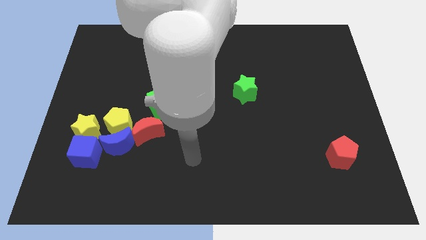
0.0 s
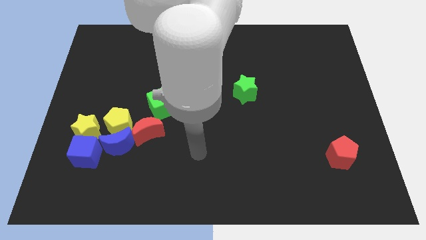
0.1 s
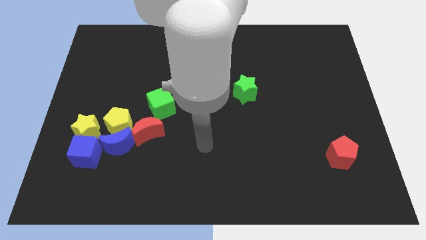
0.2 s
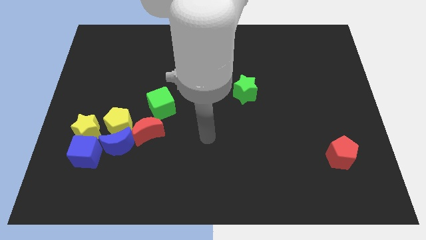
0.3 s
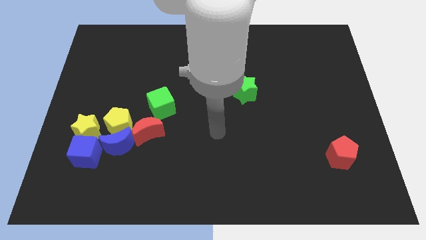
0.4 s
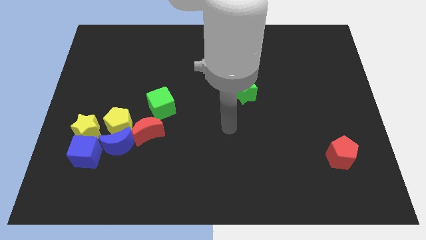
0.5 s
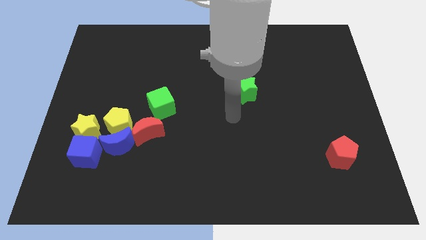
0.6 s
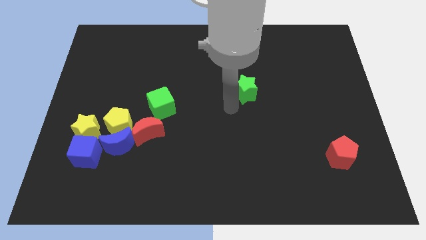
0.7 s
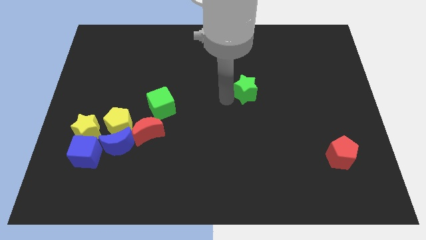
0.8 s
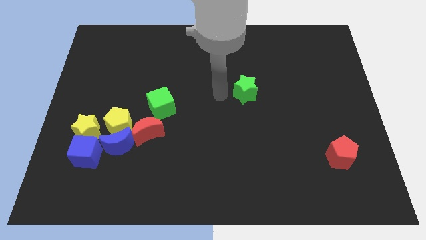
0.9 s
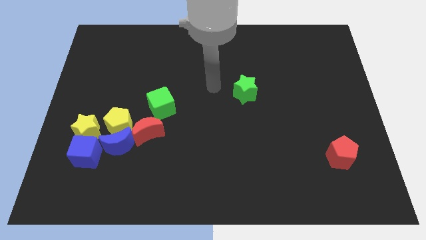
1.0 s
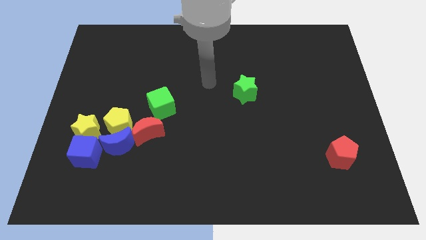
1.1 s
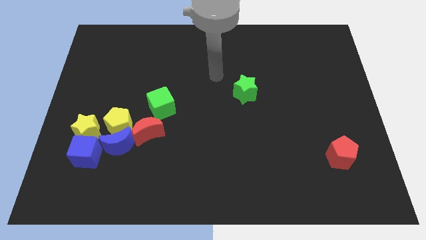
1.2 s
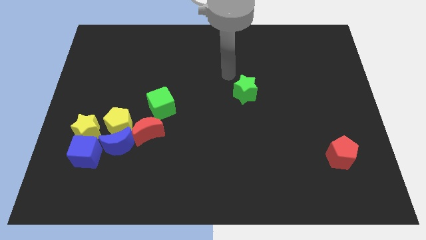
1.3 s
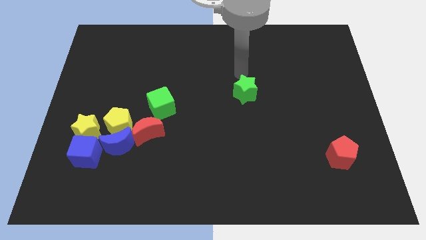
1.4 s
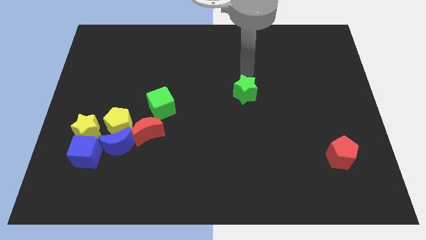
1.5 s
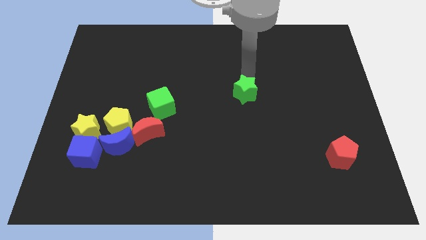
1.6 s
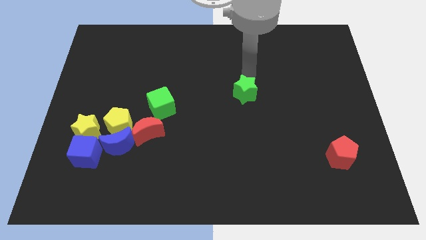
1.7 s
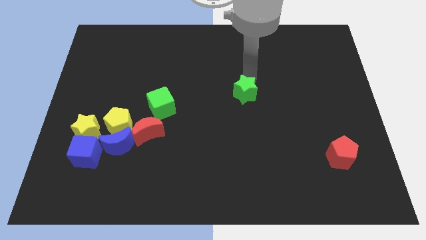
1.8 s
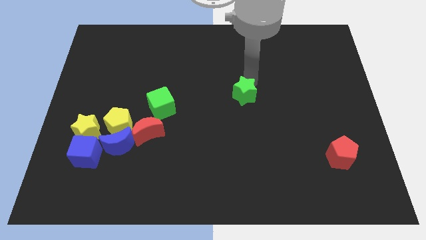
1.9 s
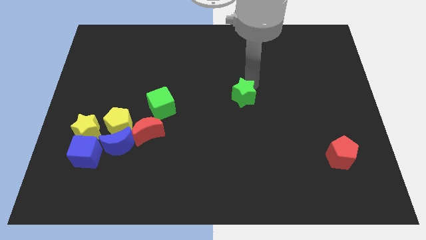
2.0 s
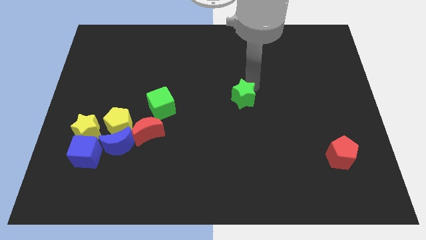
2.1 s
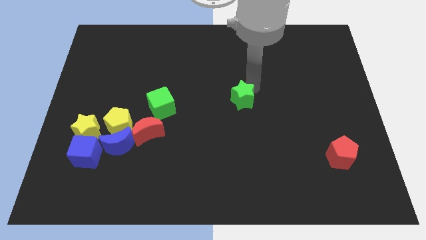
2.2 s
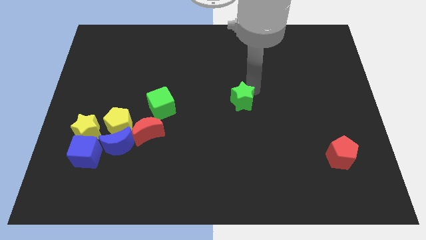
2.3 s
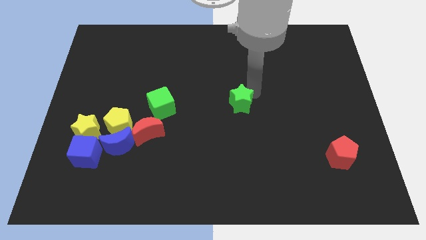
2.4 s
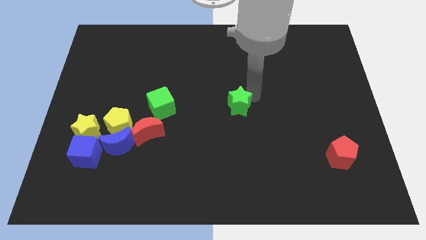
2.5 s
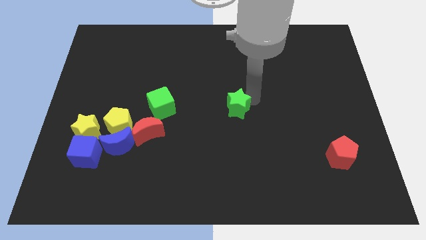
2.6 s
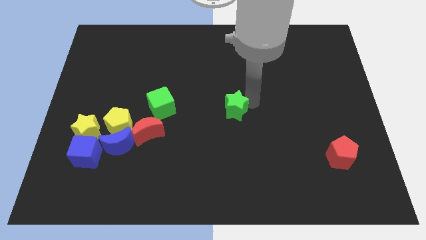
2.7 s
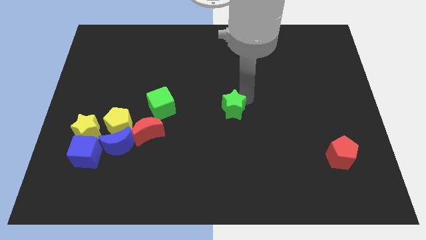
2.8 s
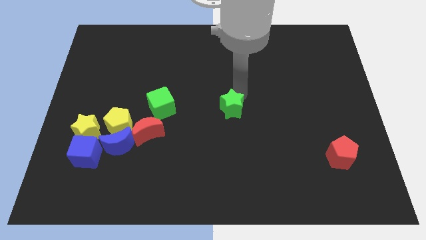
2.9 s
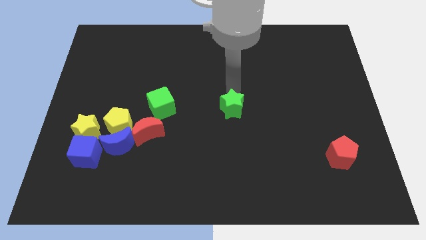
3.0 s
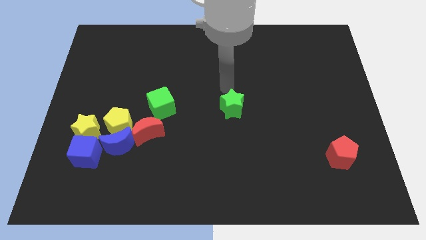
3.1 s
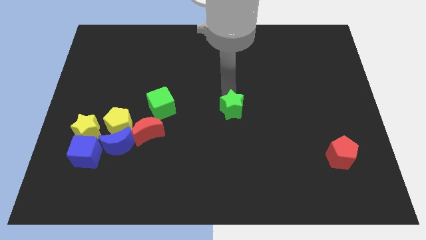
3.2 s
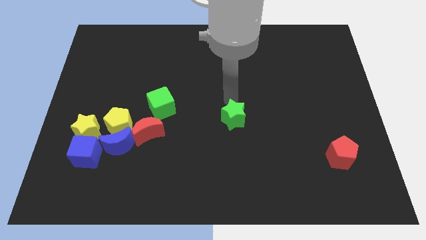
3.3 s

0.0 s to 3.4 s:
slide the green star slightly downwards

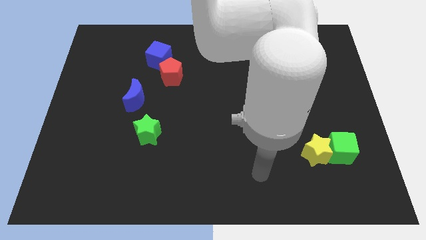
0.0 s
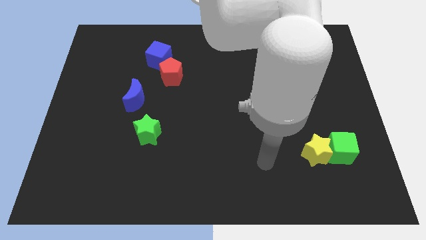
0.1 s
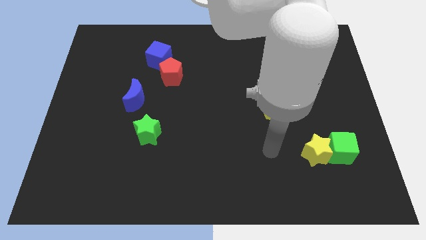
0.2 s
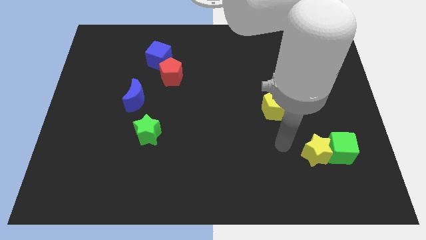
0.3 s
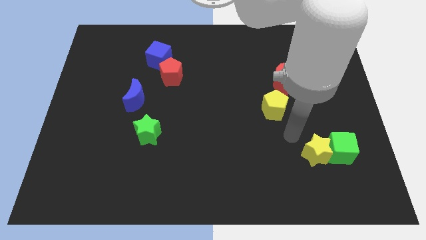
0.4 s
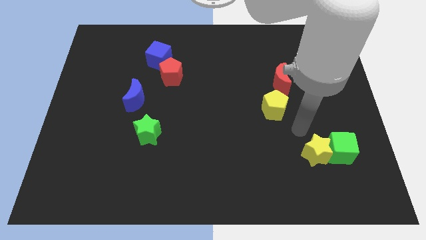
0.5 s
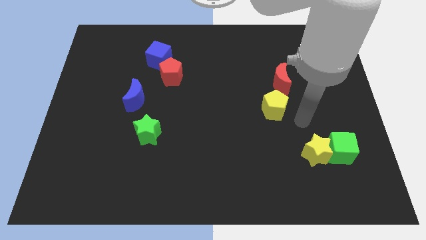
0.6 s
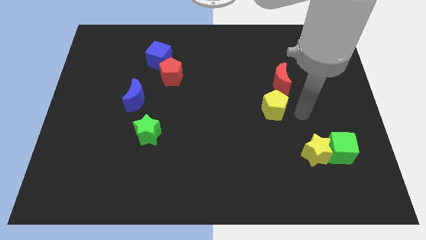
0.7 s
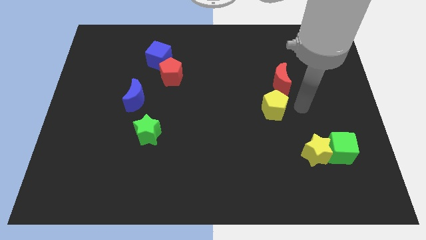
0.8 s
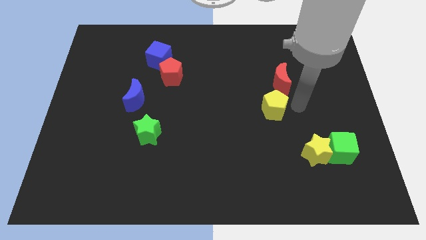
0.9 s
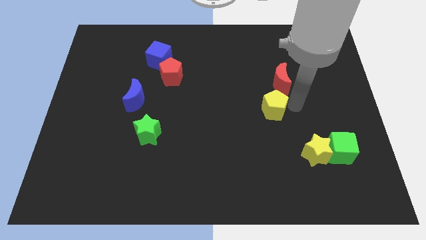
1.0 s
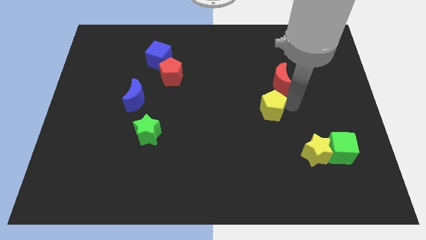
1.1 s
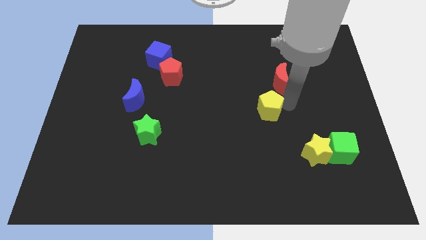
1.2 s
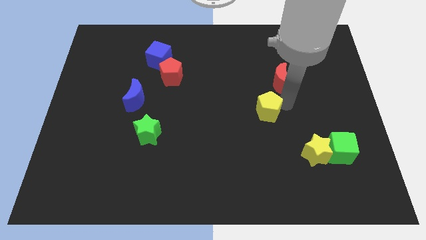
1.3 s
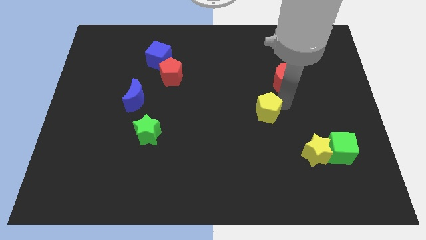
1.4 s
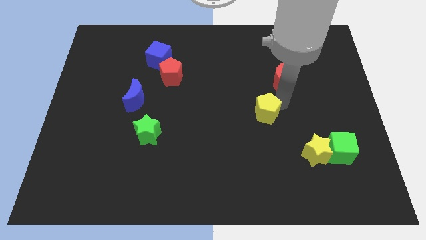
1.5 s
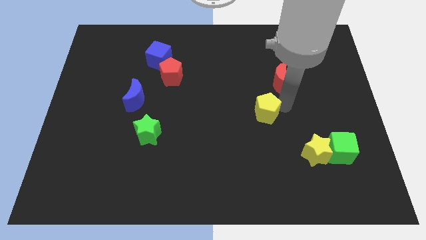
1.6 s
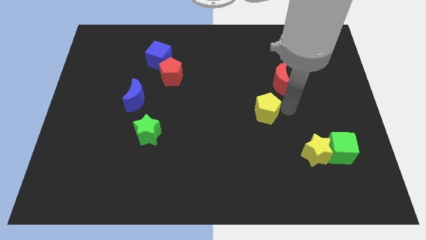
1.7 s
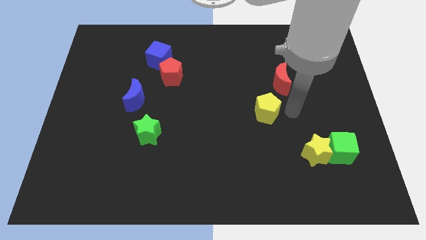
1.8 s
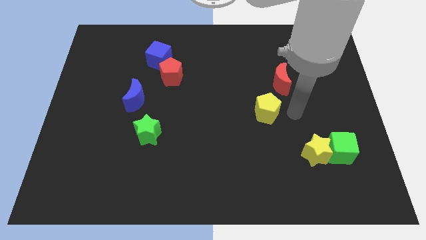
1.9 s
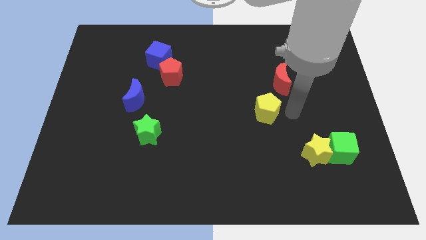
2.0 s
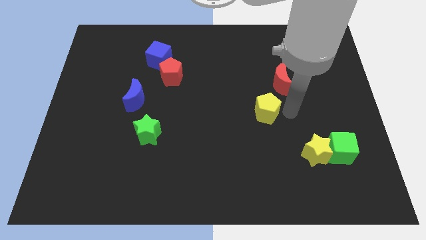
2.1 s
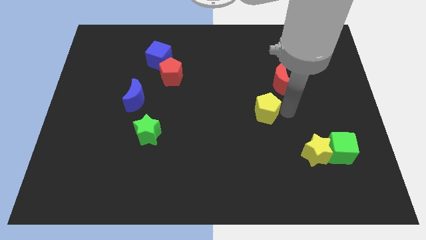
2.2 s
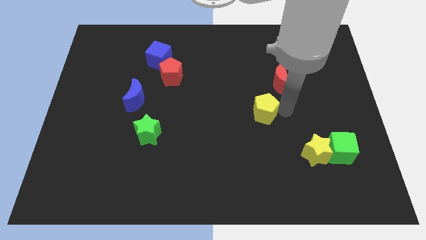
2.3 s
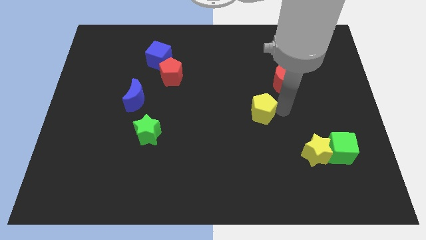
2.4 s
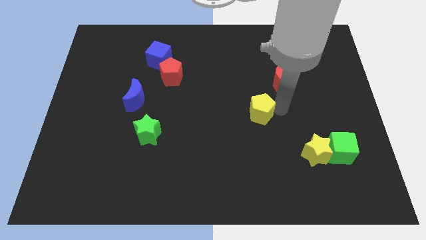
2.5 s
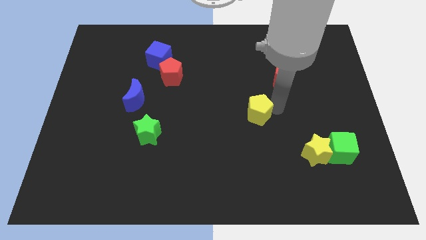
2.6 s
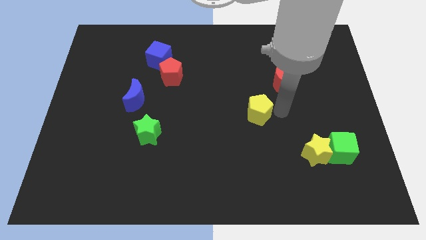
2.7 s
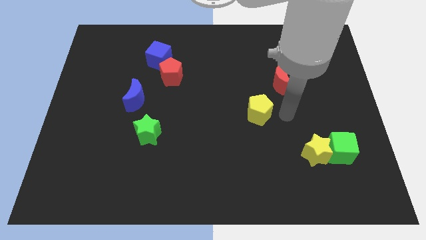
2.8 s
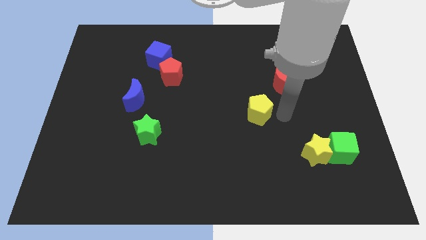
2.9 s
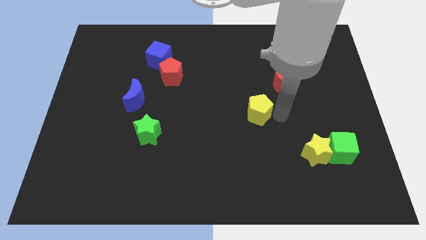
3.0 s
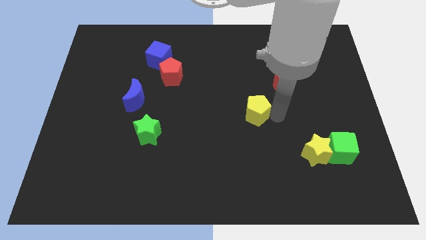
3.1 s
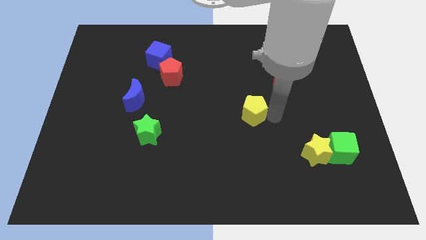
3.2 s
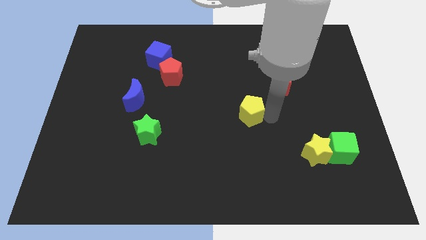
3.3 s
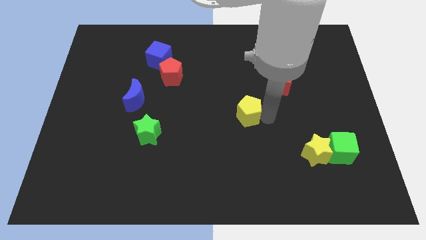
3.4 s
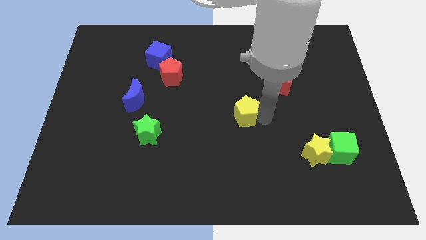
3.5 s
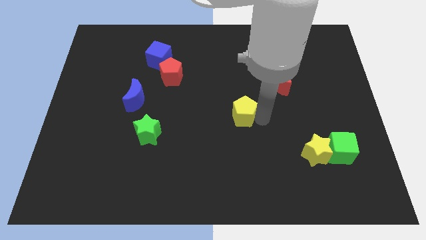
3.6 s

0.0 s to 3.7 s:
slide the yellow pentagon slightly left

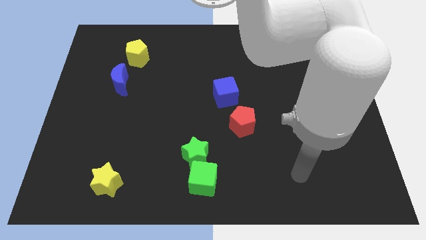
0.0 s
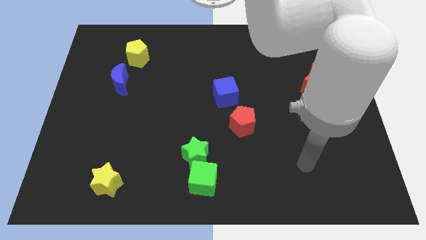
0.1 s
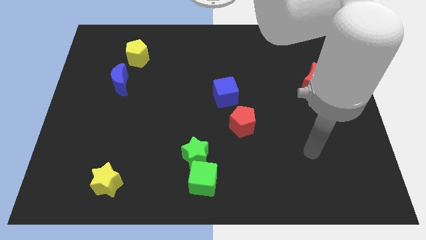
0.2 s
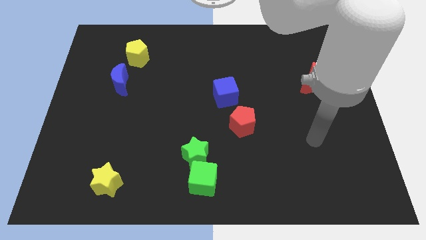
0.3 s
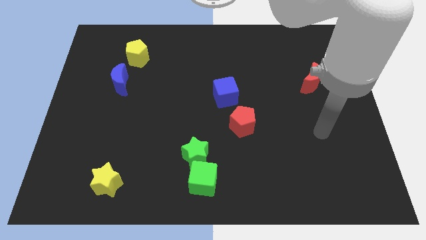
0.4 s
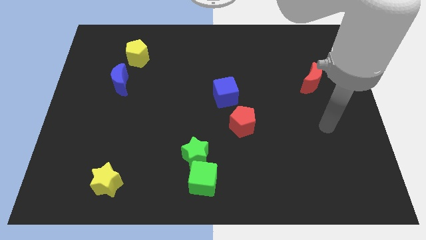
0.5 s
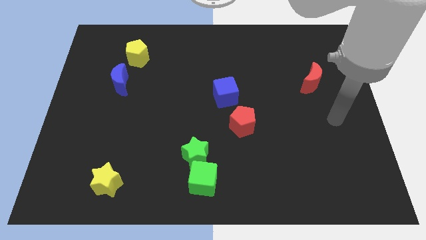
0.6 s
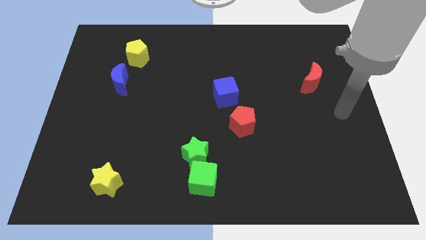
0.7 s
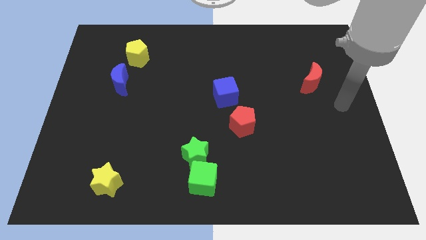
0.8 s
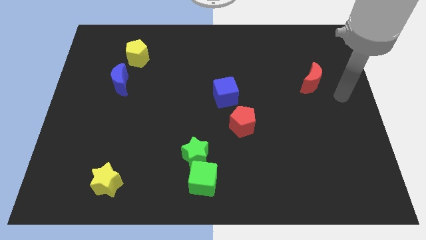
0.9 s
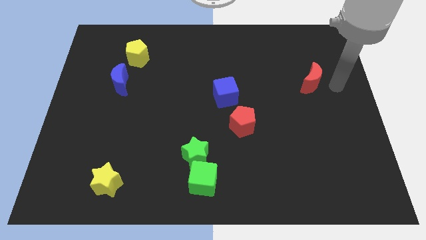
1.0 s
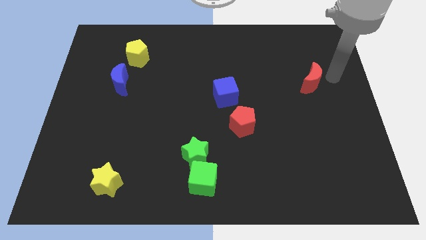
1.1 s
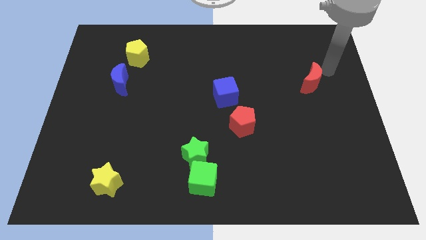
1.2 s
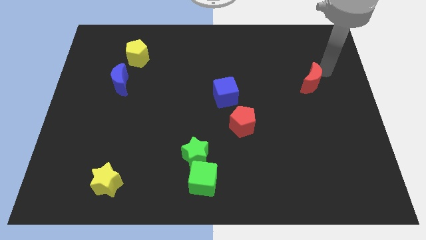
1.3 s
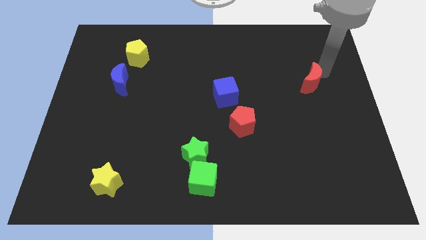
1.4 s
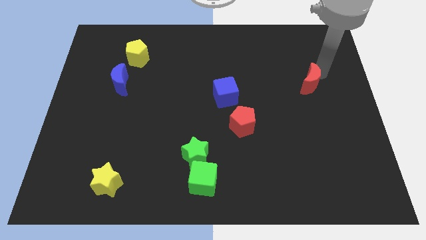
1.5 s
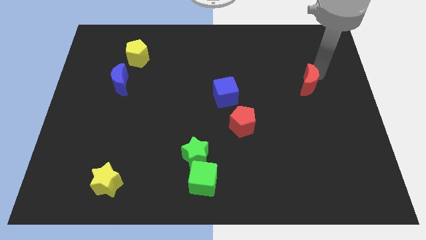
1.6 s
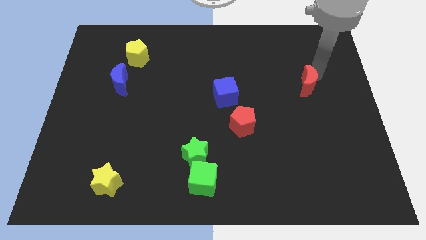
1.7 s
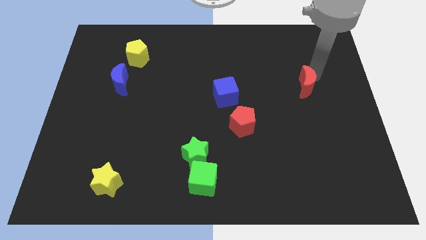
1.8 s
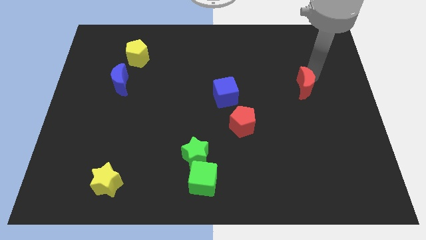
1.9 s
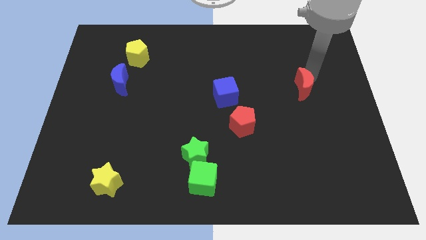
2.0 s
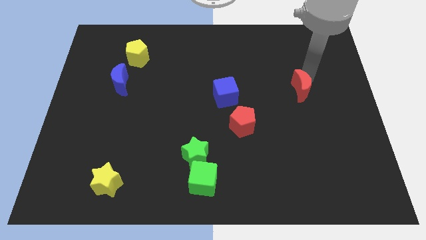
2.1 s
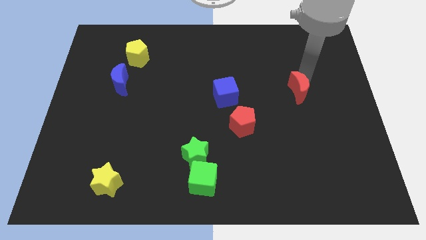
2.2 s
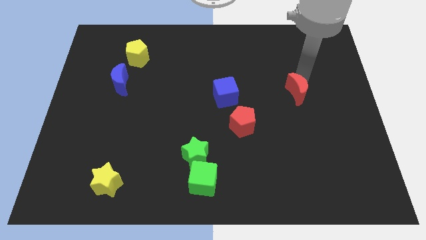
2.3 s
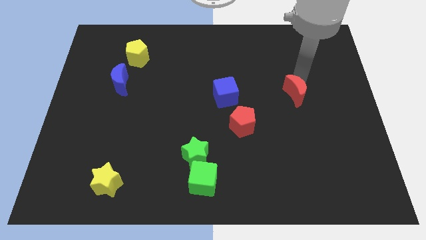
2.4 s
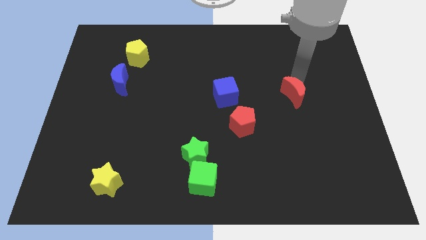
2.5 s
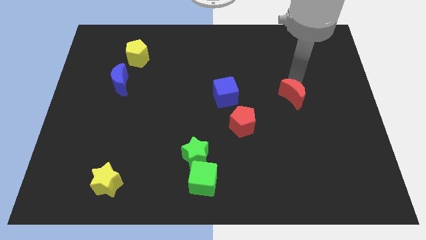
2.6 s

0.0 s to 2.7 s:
slide the red moon down and to the left a bit
